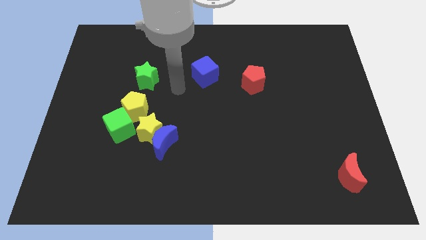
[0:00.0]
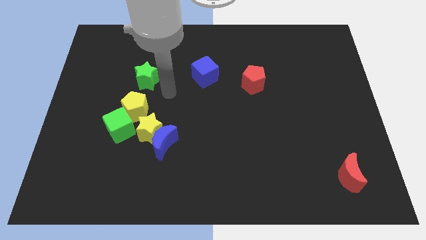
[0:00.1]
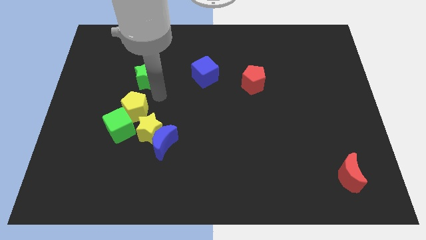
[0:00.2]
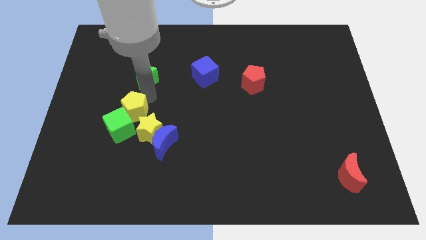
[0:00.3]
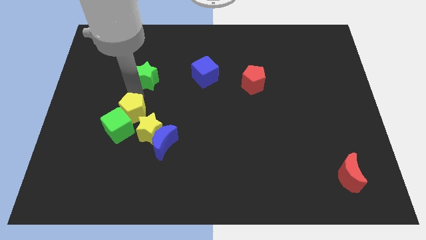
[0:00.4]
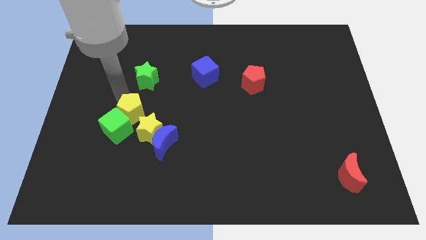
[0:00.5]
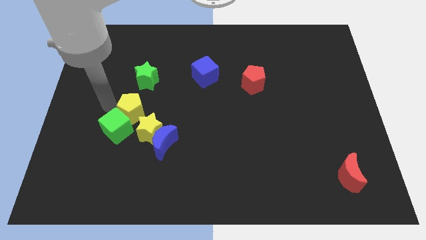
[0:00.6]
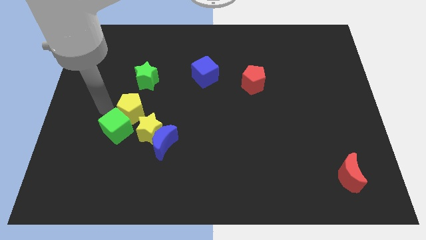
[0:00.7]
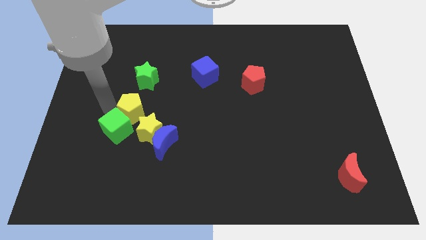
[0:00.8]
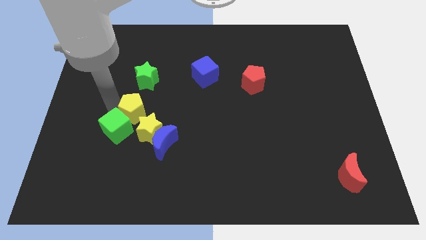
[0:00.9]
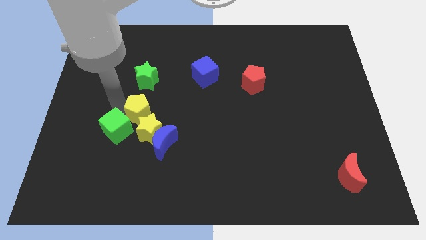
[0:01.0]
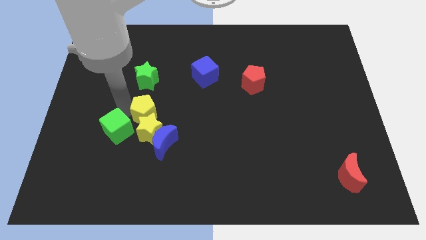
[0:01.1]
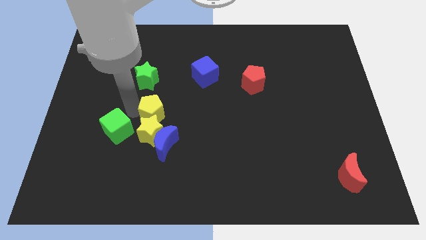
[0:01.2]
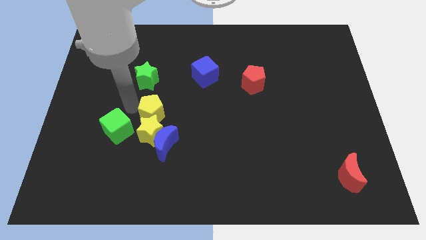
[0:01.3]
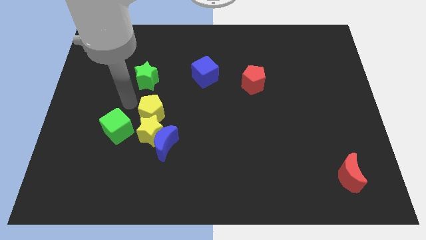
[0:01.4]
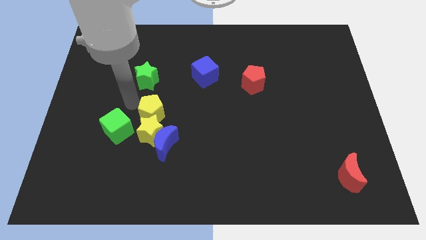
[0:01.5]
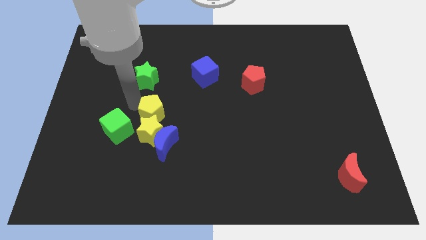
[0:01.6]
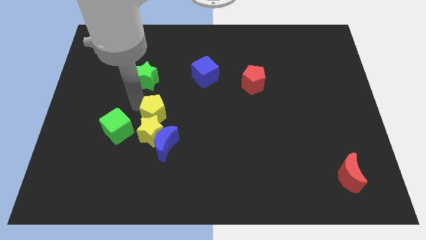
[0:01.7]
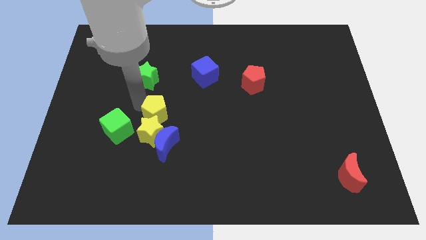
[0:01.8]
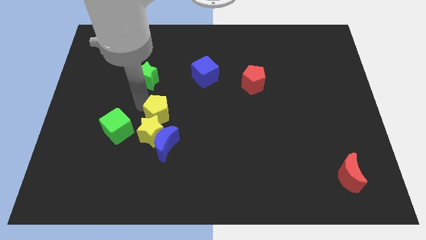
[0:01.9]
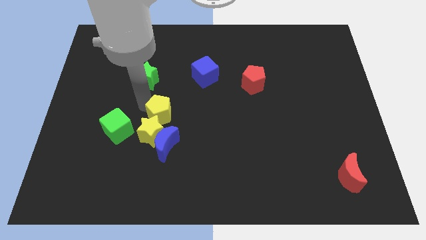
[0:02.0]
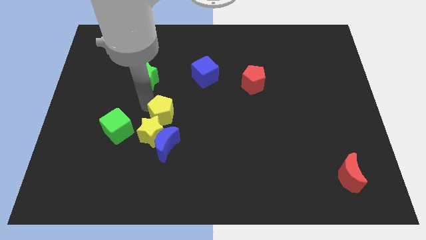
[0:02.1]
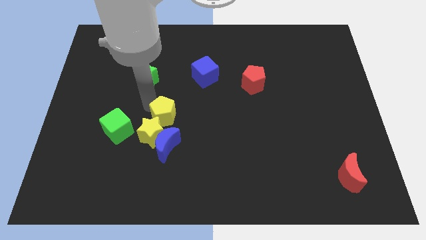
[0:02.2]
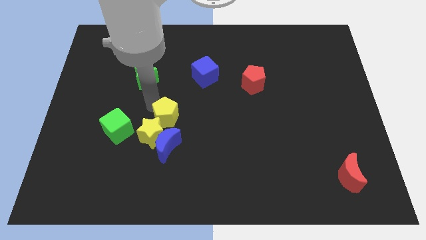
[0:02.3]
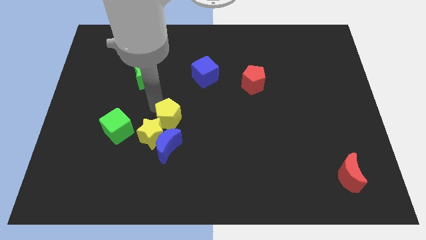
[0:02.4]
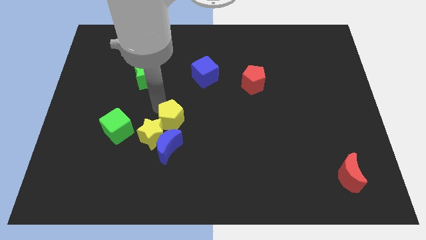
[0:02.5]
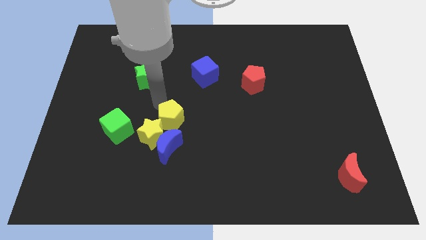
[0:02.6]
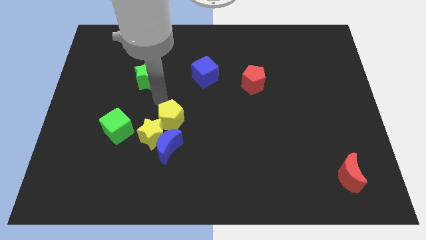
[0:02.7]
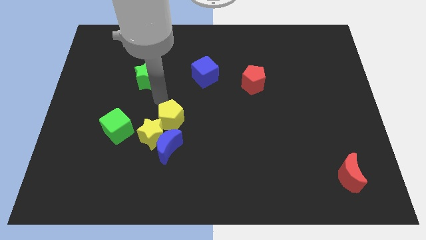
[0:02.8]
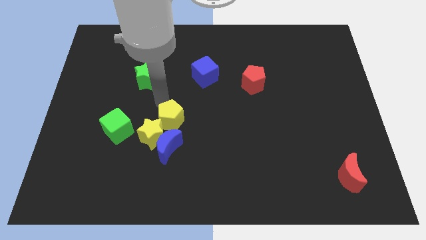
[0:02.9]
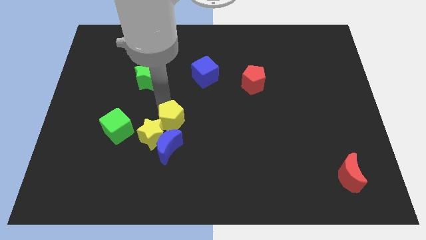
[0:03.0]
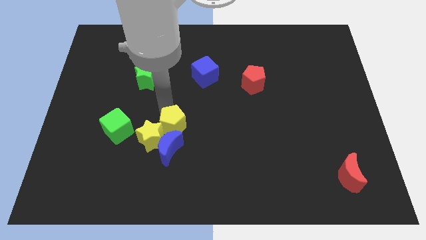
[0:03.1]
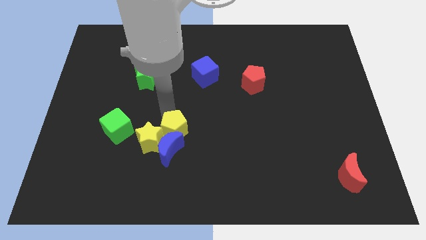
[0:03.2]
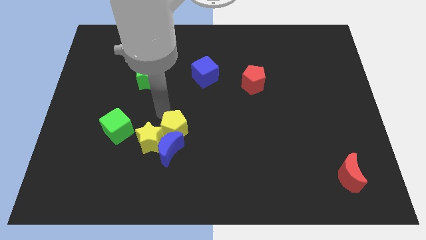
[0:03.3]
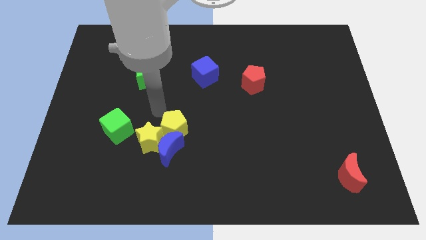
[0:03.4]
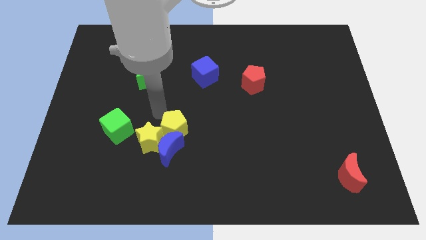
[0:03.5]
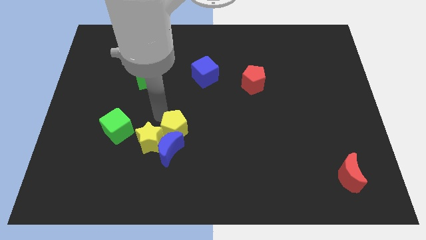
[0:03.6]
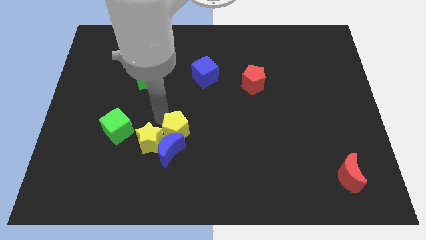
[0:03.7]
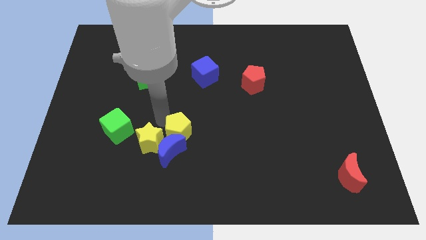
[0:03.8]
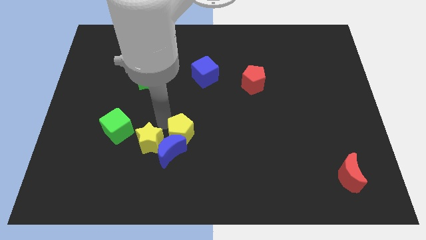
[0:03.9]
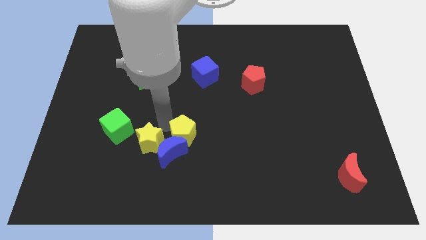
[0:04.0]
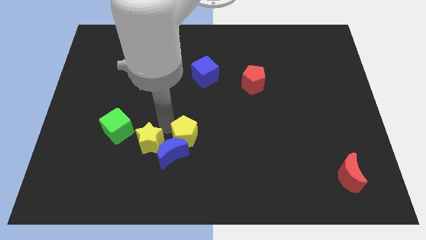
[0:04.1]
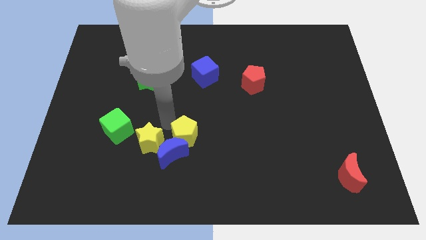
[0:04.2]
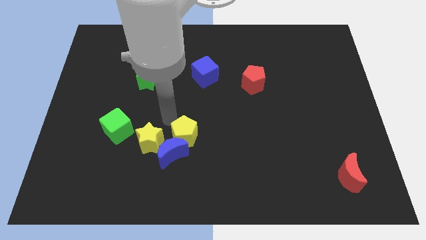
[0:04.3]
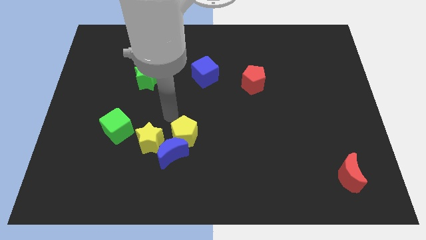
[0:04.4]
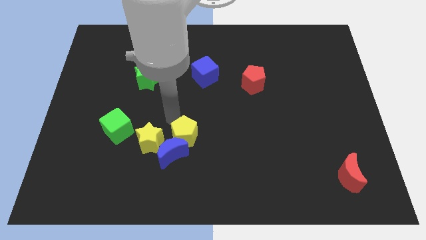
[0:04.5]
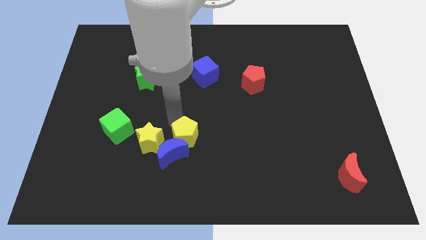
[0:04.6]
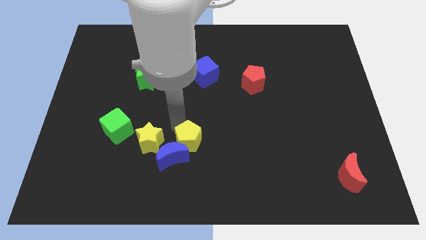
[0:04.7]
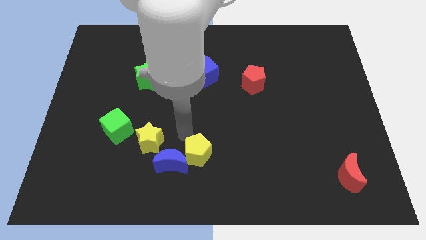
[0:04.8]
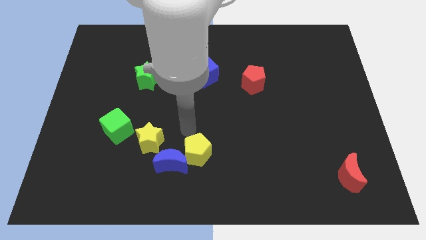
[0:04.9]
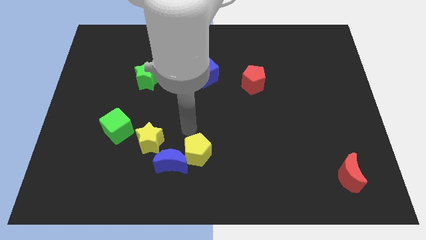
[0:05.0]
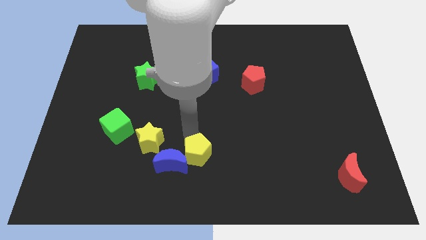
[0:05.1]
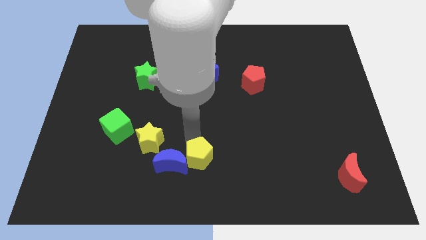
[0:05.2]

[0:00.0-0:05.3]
slide the yellow pentagon to the bottom

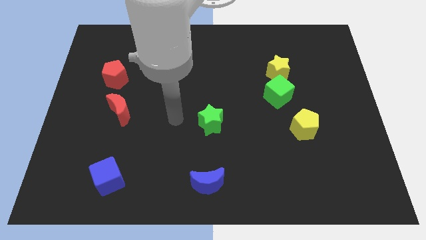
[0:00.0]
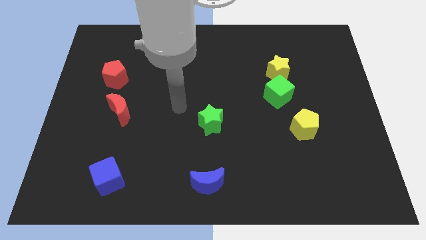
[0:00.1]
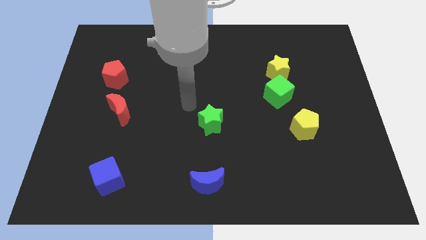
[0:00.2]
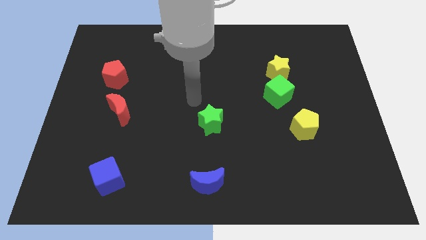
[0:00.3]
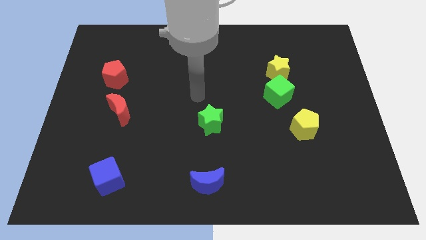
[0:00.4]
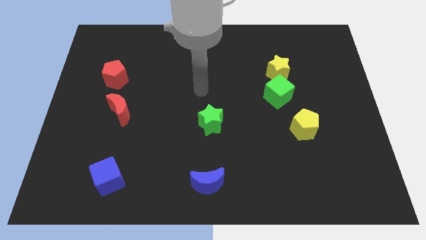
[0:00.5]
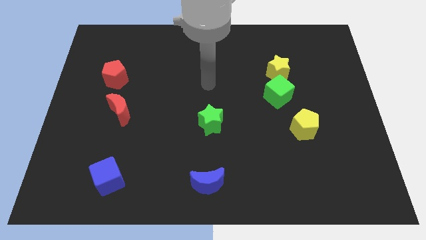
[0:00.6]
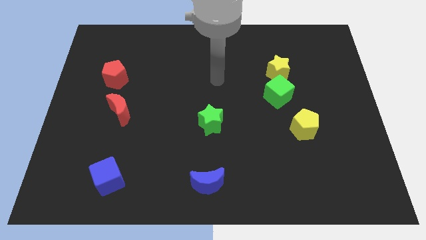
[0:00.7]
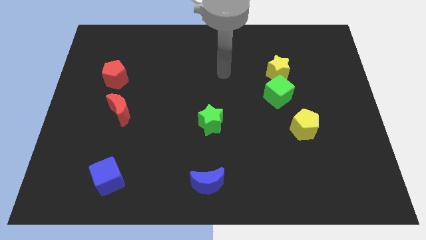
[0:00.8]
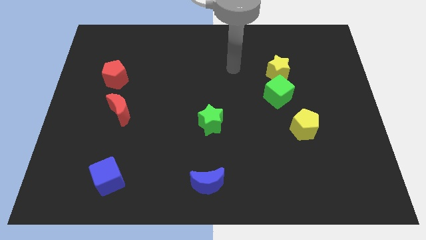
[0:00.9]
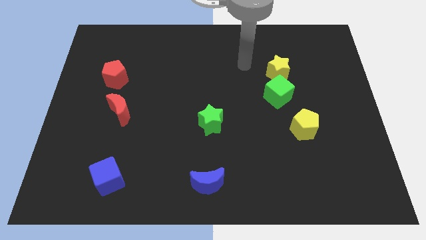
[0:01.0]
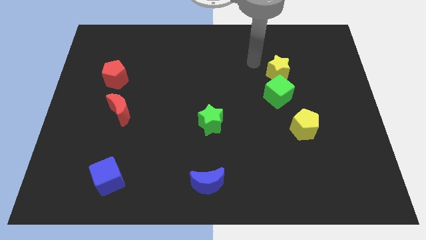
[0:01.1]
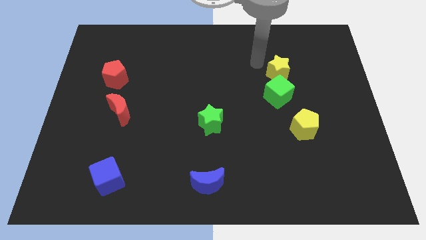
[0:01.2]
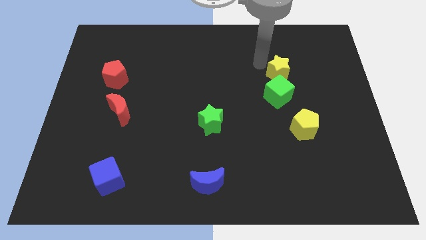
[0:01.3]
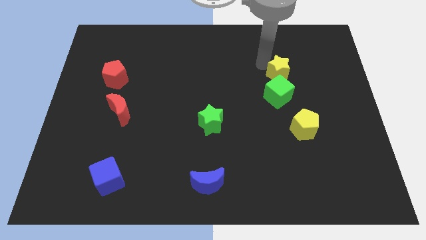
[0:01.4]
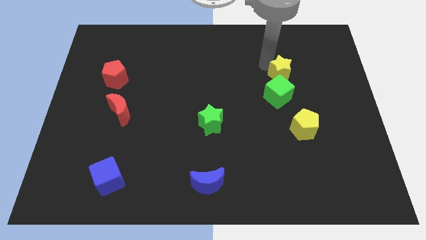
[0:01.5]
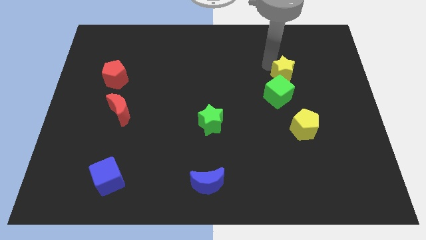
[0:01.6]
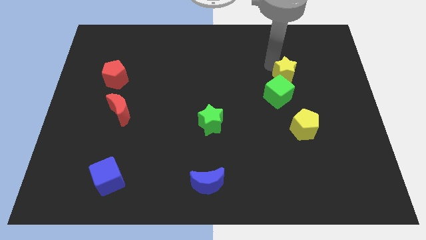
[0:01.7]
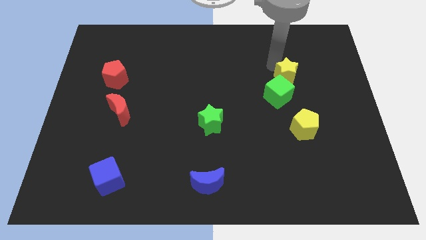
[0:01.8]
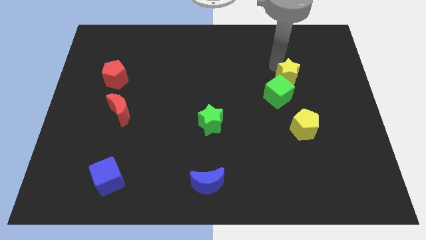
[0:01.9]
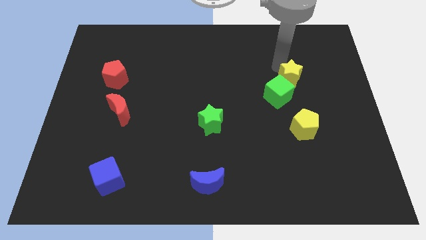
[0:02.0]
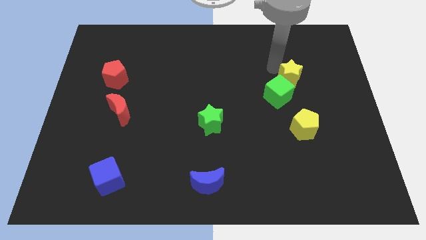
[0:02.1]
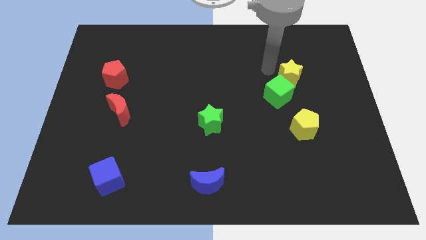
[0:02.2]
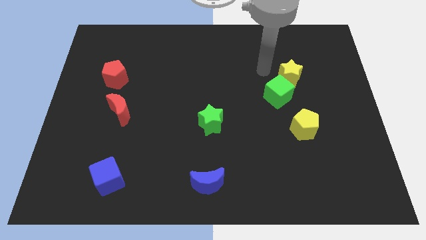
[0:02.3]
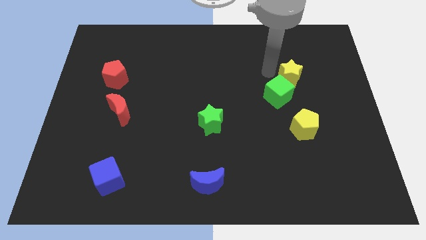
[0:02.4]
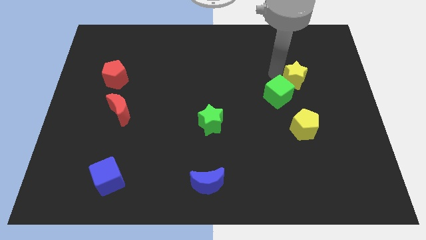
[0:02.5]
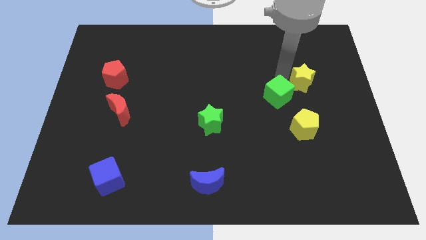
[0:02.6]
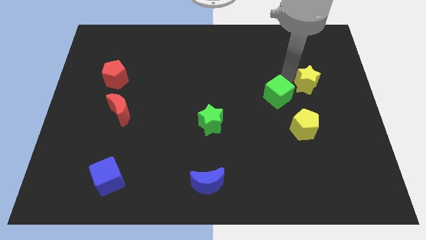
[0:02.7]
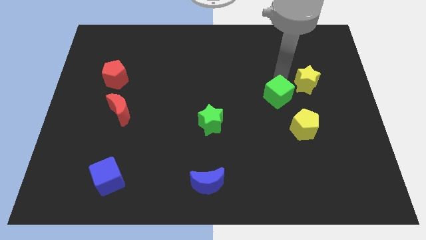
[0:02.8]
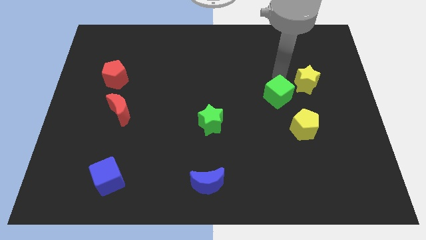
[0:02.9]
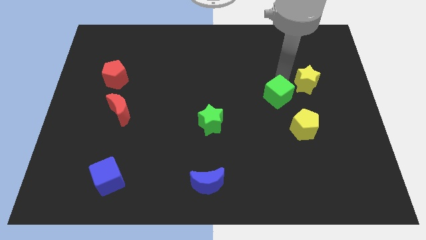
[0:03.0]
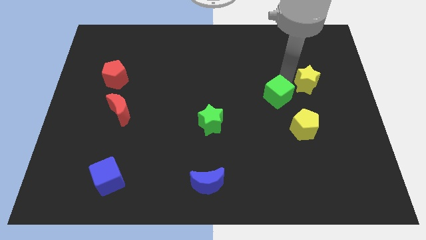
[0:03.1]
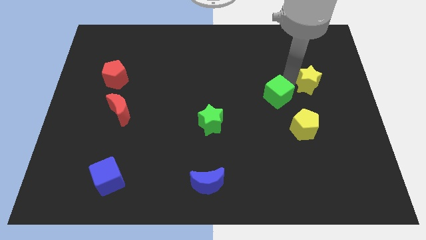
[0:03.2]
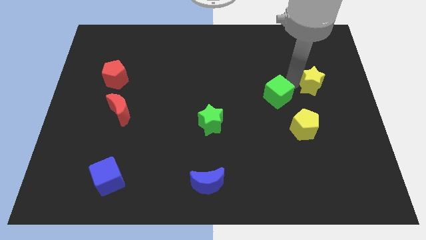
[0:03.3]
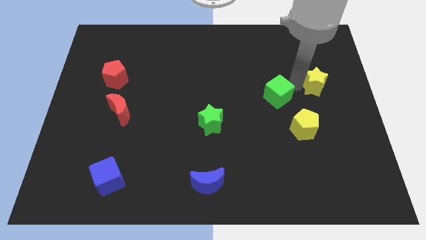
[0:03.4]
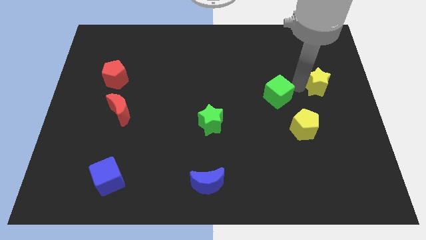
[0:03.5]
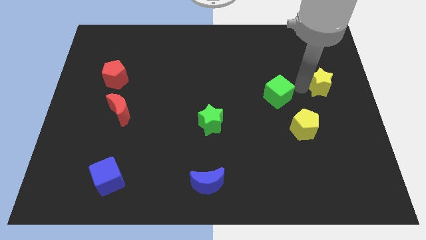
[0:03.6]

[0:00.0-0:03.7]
put the yellow star to the right side of the board
